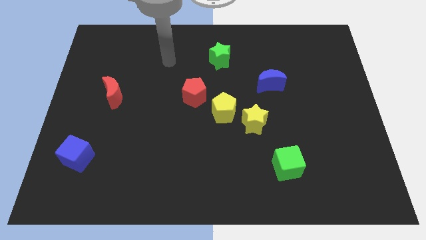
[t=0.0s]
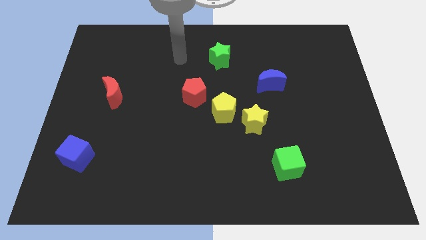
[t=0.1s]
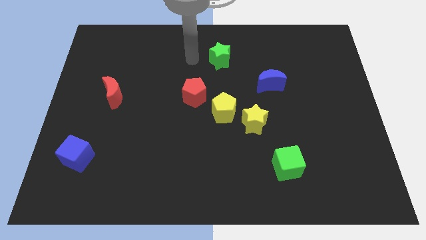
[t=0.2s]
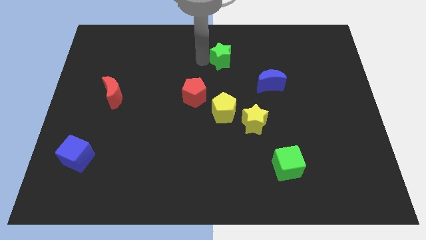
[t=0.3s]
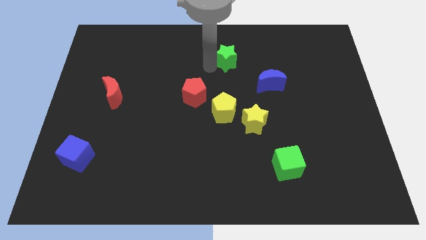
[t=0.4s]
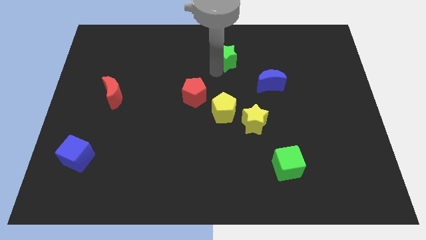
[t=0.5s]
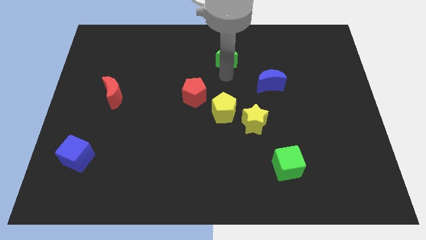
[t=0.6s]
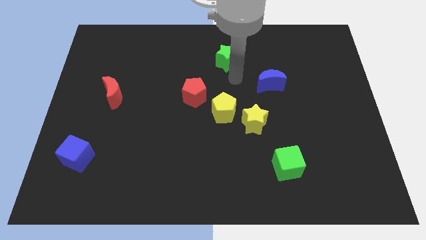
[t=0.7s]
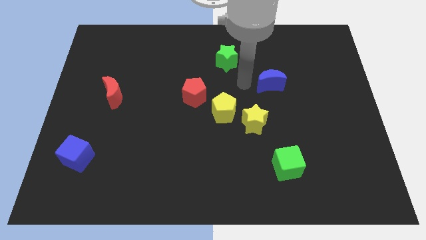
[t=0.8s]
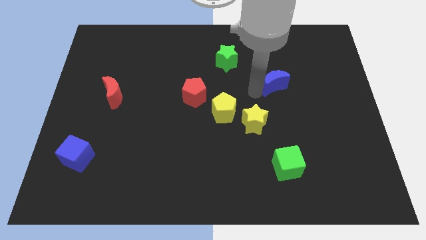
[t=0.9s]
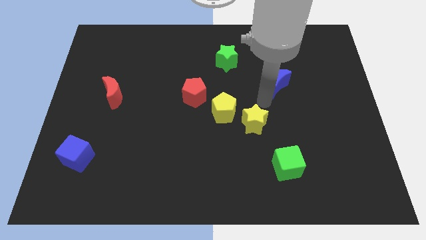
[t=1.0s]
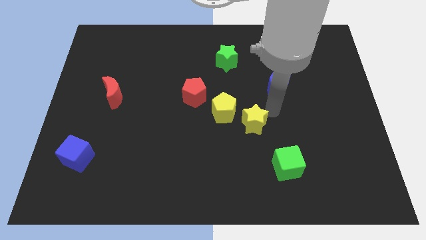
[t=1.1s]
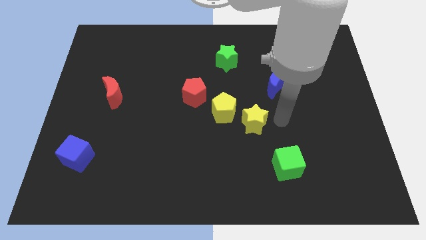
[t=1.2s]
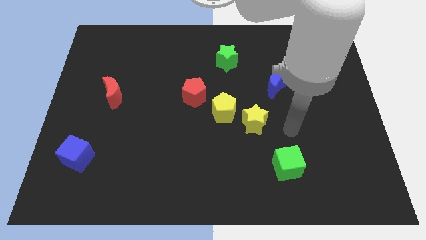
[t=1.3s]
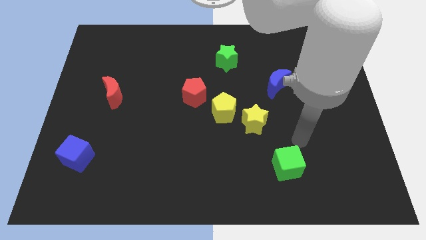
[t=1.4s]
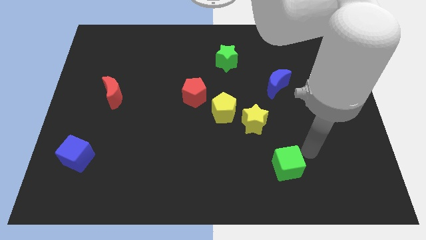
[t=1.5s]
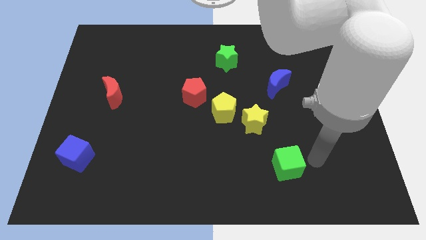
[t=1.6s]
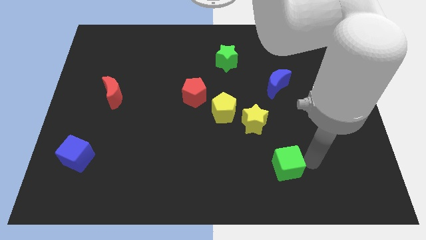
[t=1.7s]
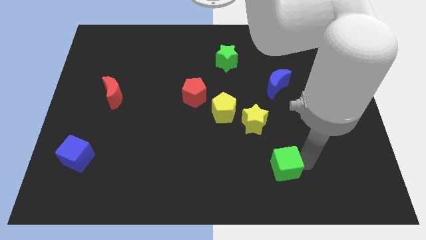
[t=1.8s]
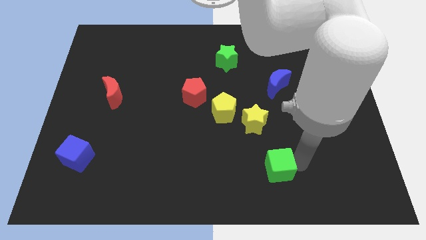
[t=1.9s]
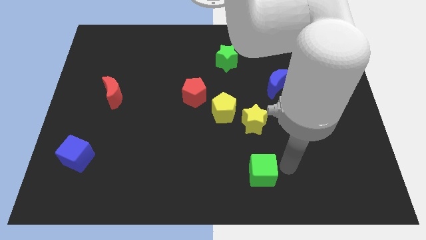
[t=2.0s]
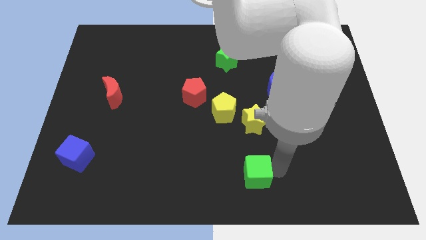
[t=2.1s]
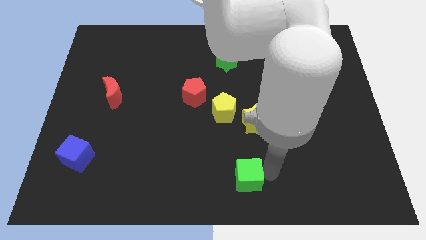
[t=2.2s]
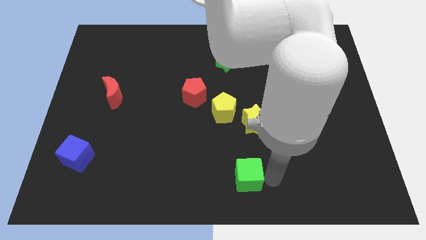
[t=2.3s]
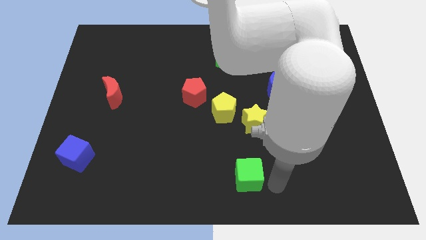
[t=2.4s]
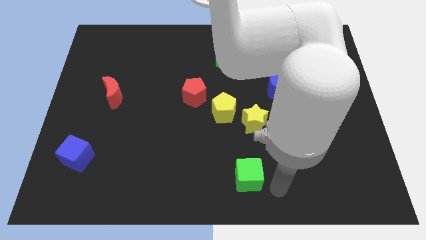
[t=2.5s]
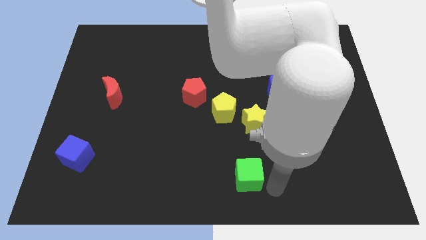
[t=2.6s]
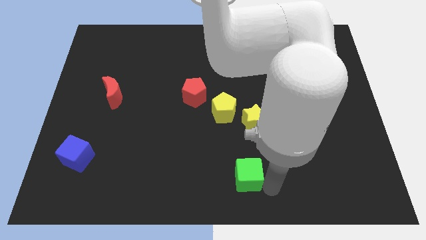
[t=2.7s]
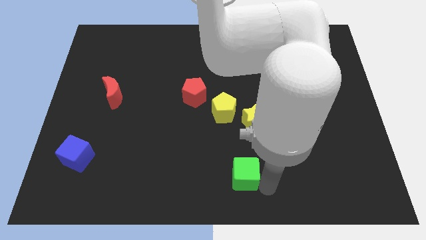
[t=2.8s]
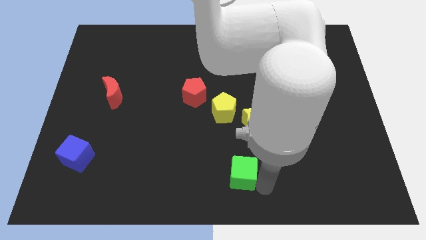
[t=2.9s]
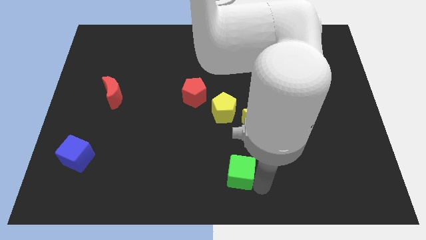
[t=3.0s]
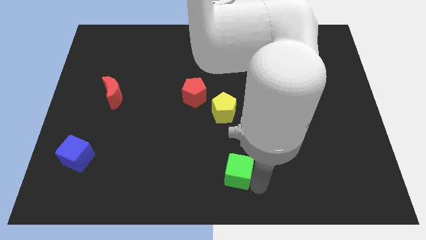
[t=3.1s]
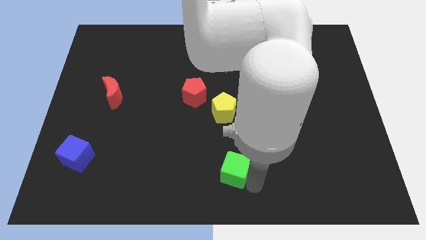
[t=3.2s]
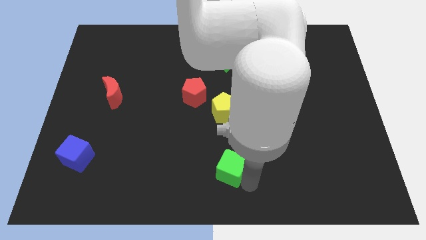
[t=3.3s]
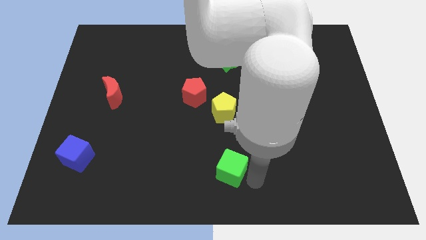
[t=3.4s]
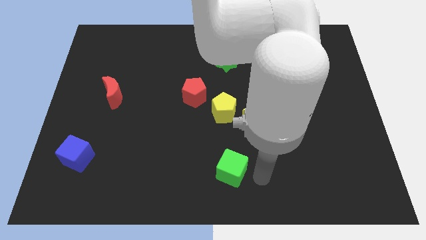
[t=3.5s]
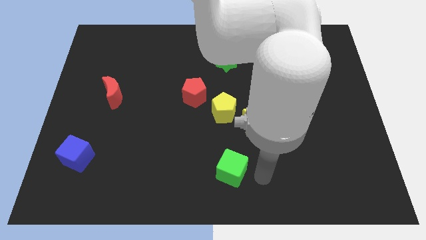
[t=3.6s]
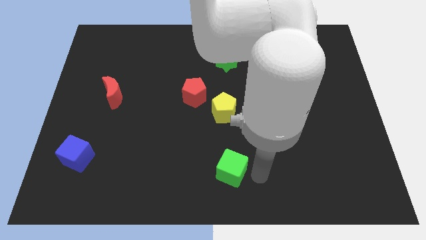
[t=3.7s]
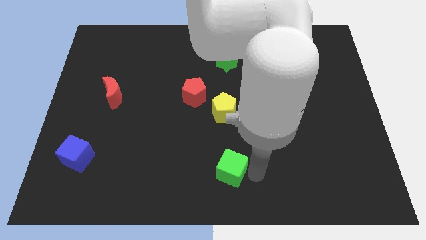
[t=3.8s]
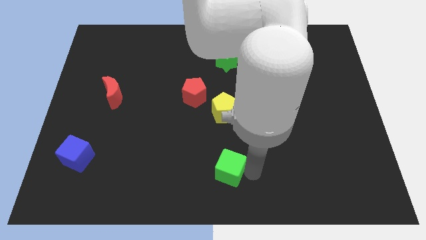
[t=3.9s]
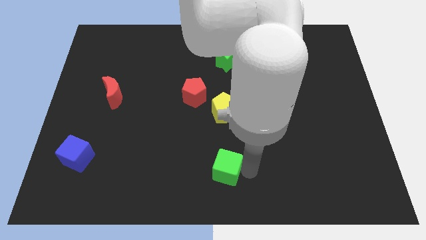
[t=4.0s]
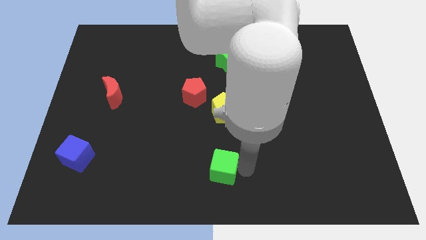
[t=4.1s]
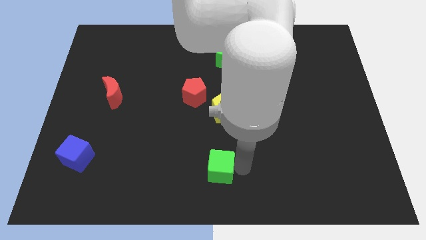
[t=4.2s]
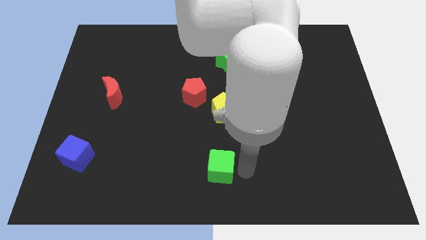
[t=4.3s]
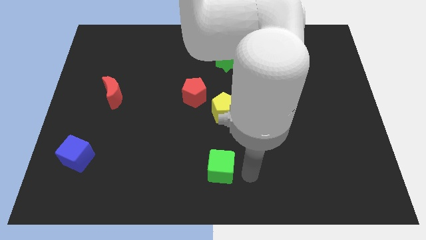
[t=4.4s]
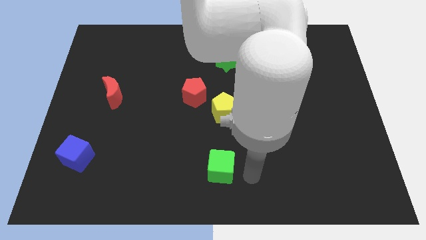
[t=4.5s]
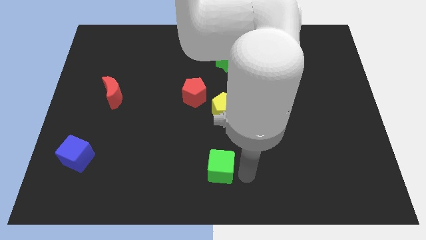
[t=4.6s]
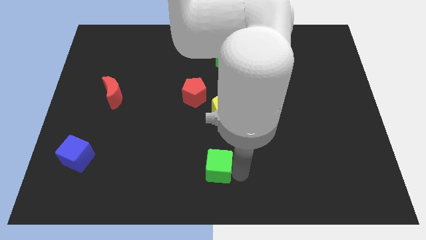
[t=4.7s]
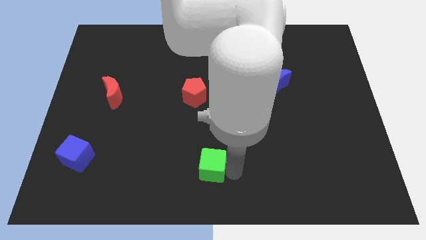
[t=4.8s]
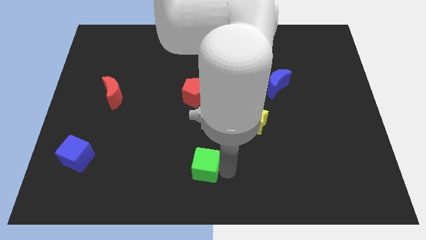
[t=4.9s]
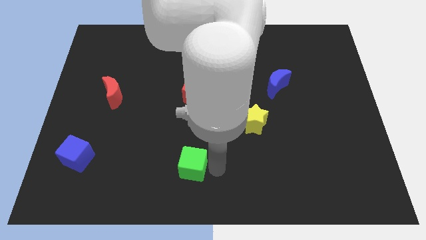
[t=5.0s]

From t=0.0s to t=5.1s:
push the green cube left

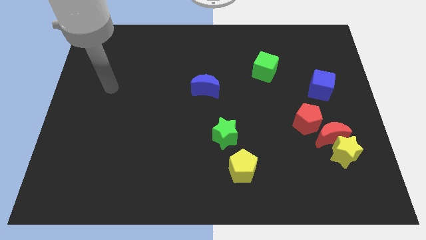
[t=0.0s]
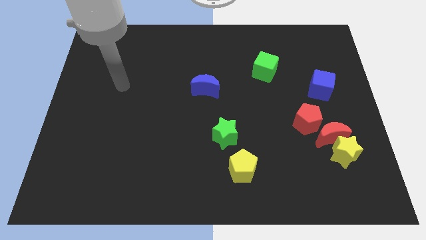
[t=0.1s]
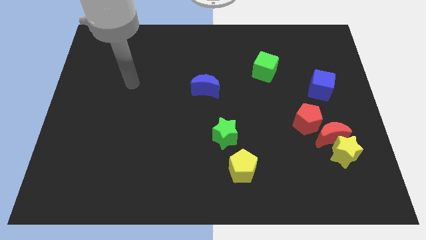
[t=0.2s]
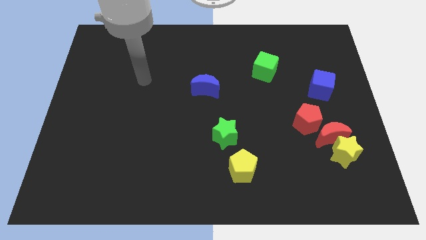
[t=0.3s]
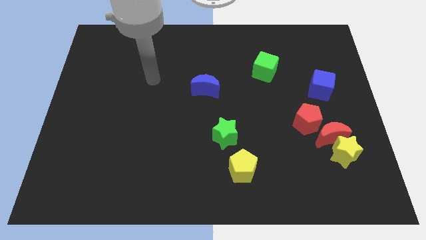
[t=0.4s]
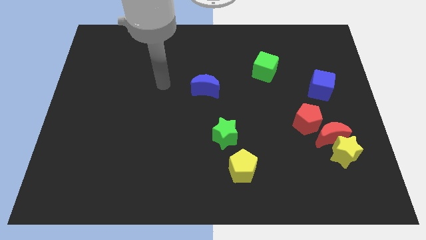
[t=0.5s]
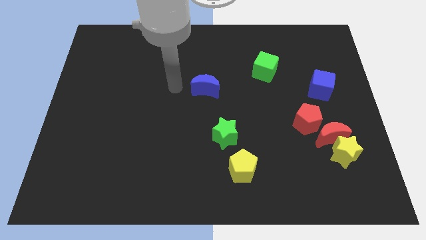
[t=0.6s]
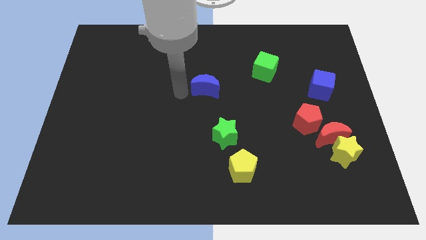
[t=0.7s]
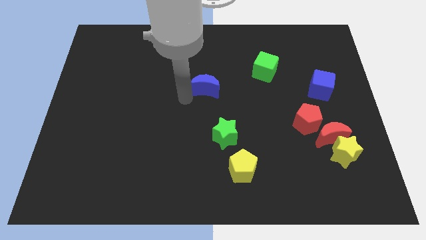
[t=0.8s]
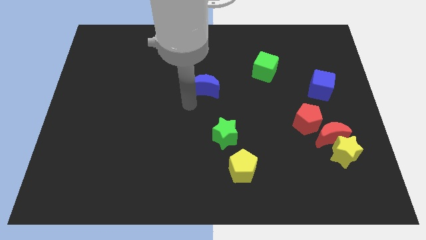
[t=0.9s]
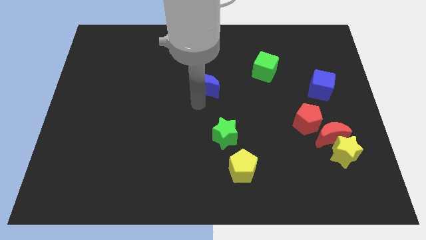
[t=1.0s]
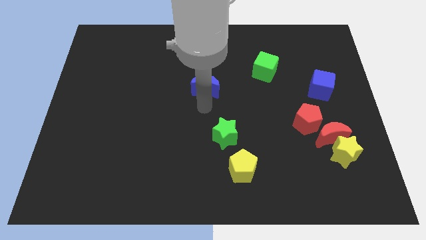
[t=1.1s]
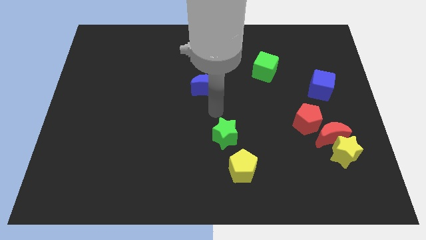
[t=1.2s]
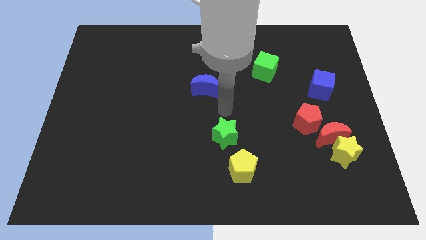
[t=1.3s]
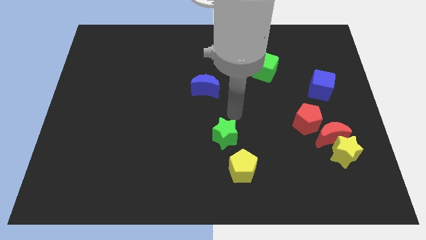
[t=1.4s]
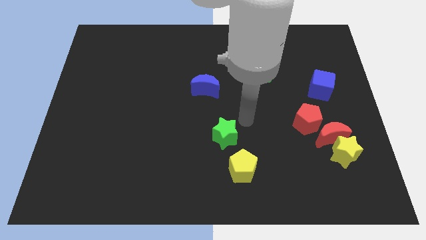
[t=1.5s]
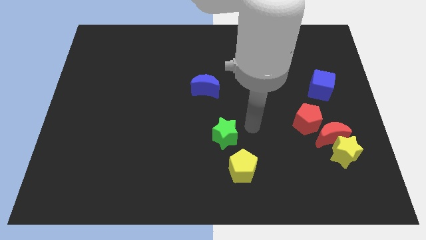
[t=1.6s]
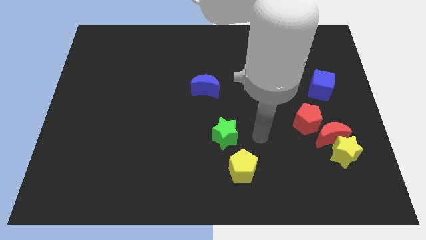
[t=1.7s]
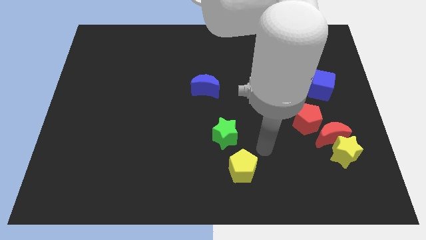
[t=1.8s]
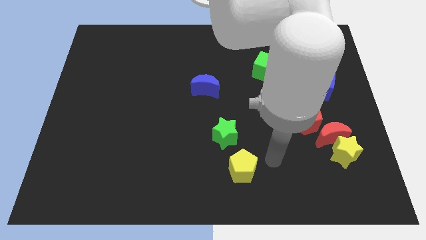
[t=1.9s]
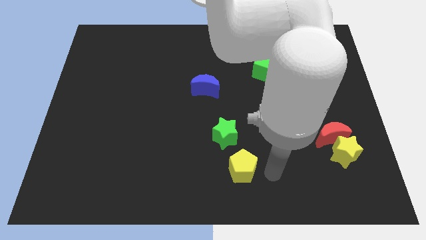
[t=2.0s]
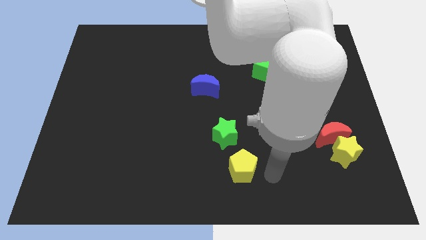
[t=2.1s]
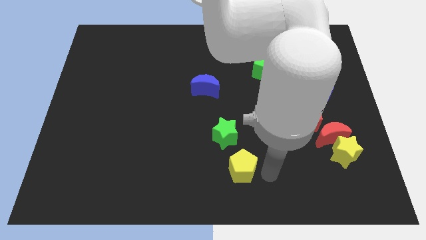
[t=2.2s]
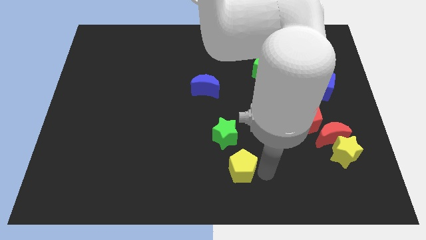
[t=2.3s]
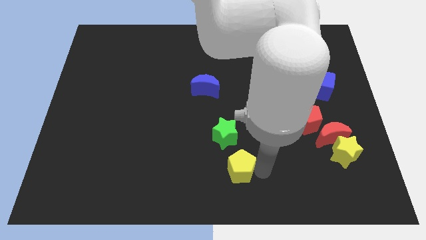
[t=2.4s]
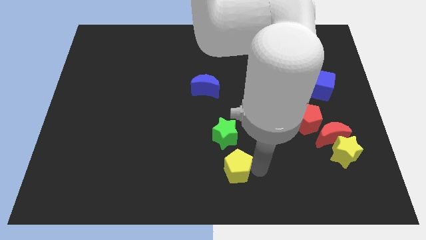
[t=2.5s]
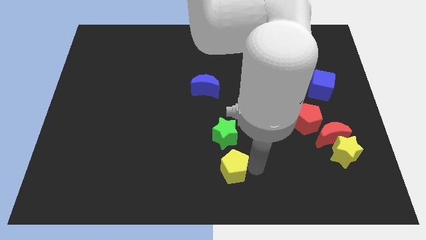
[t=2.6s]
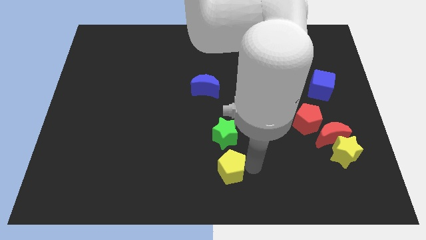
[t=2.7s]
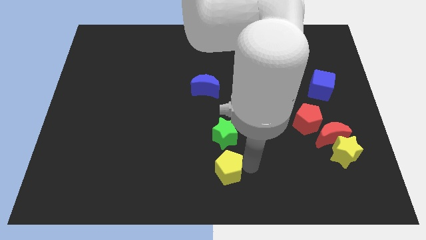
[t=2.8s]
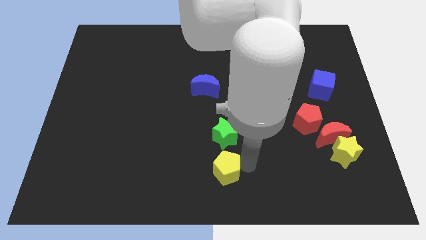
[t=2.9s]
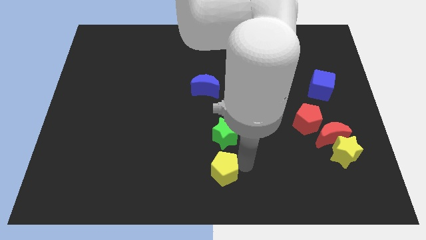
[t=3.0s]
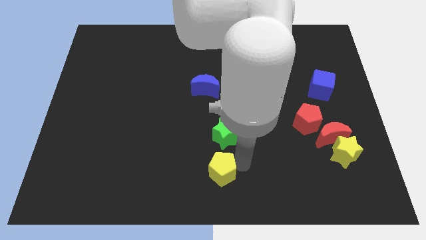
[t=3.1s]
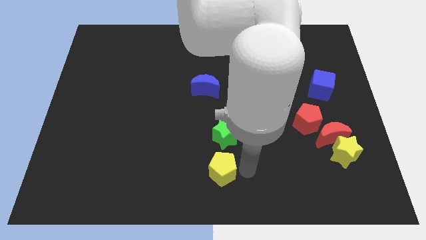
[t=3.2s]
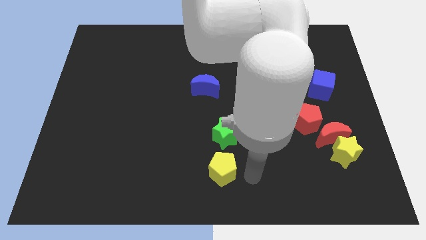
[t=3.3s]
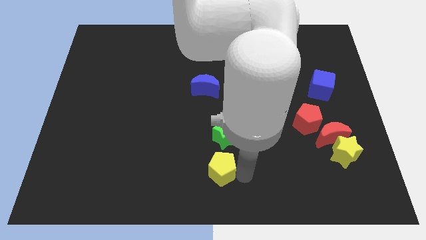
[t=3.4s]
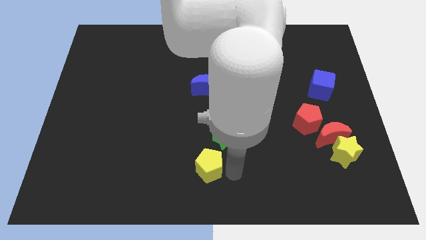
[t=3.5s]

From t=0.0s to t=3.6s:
push the yellow pentagon a little to the left
